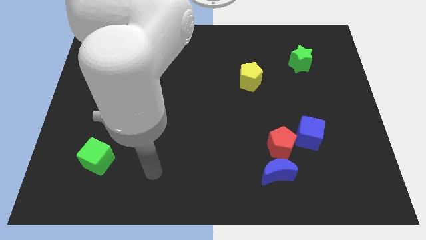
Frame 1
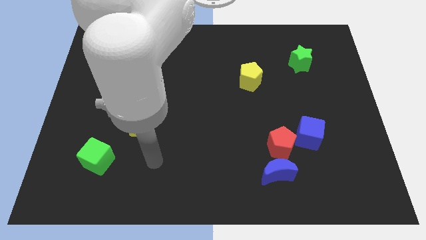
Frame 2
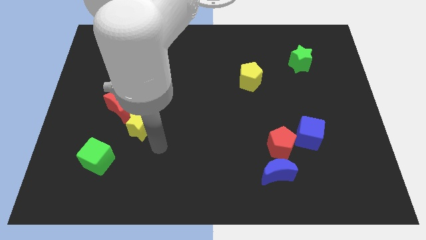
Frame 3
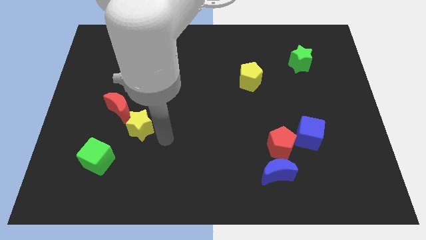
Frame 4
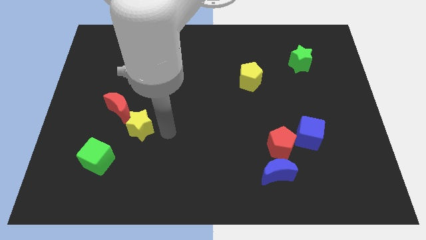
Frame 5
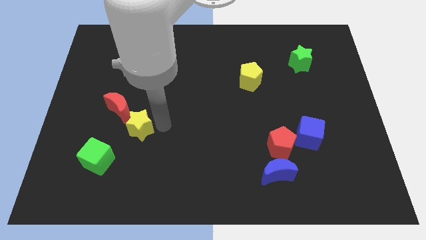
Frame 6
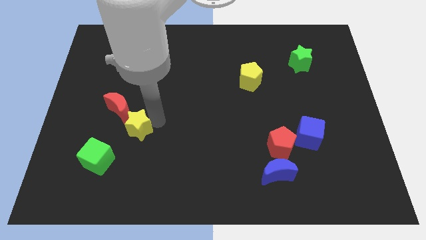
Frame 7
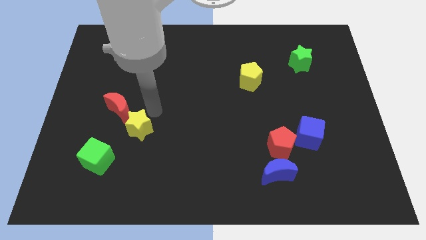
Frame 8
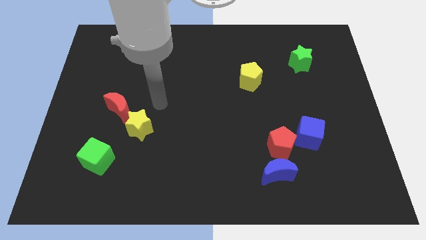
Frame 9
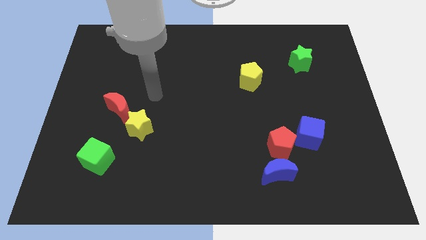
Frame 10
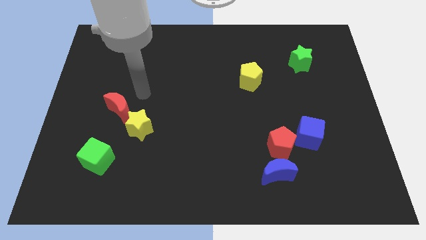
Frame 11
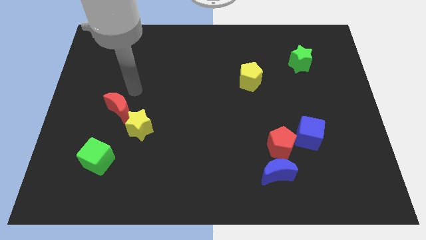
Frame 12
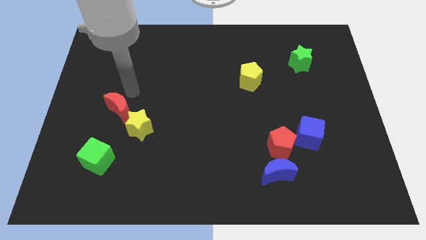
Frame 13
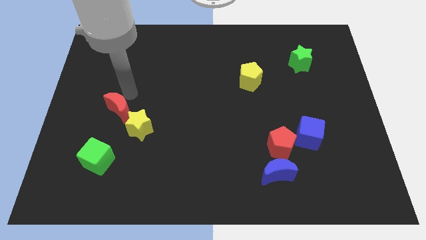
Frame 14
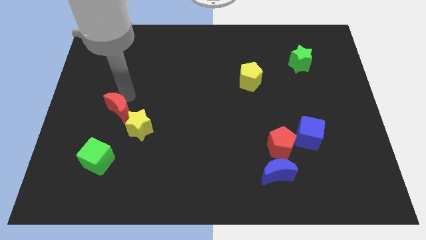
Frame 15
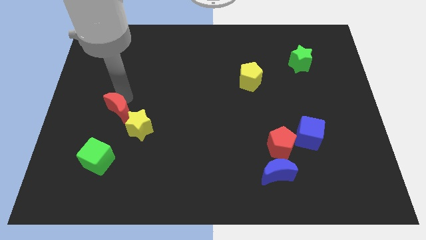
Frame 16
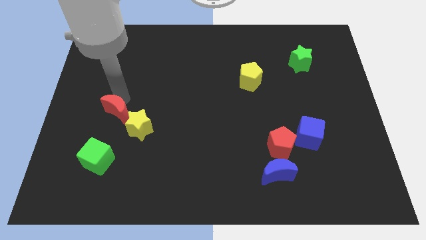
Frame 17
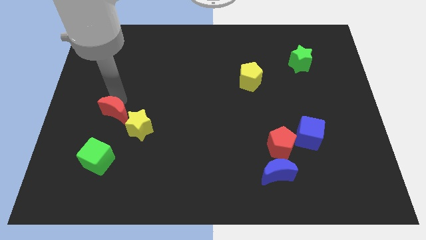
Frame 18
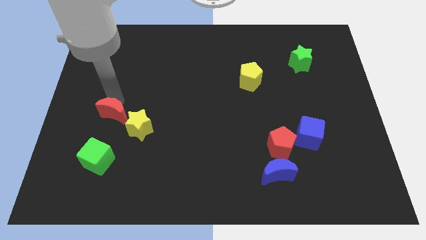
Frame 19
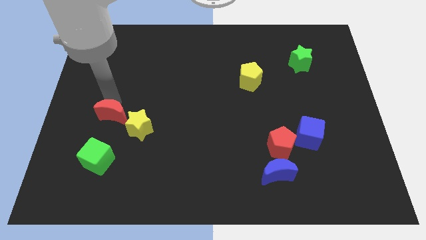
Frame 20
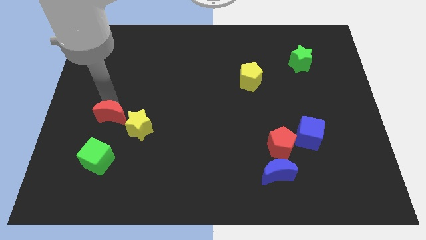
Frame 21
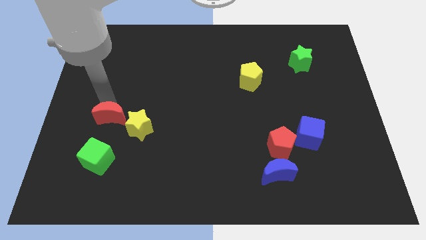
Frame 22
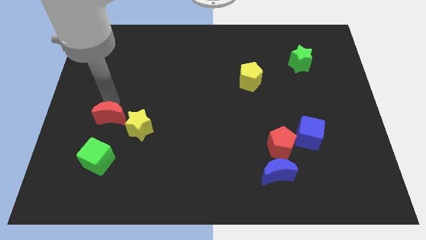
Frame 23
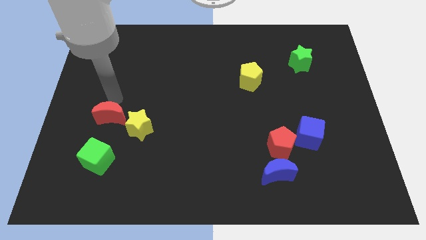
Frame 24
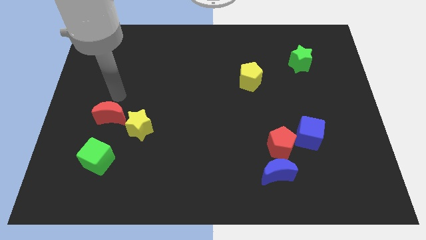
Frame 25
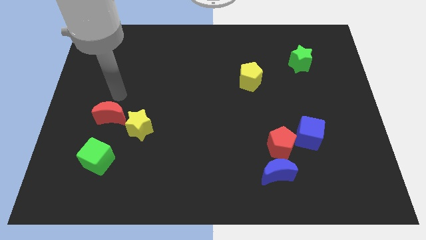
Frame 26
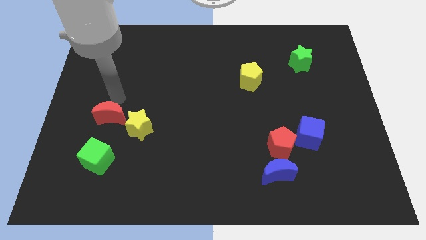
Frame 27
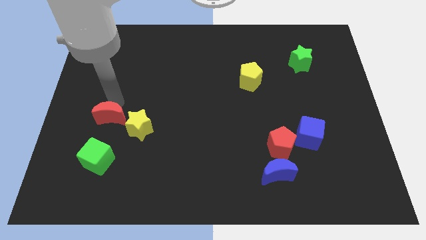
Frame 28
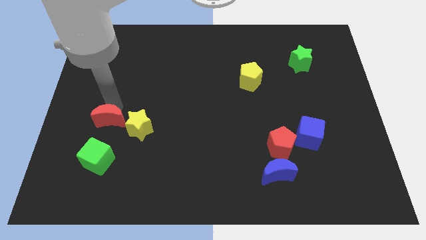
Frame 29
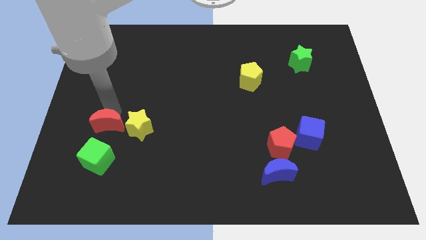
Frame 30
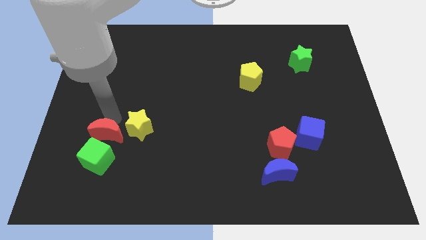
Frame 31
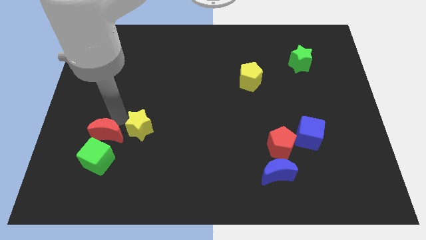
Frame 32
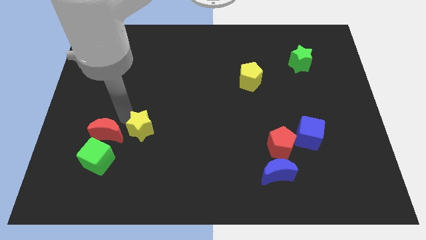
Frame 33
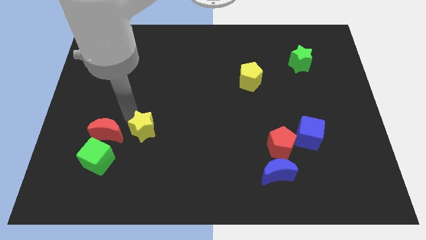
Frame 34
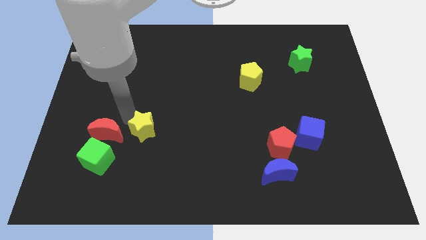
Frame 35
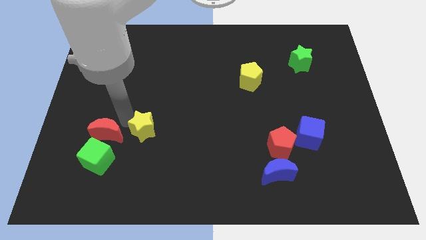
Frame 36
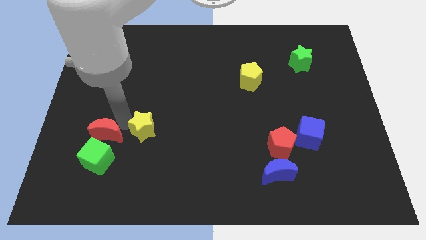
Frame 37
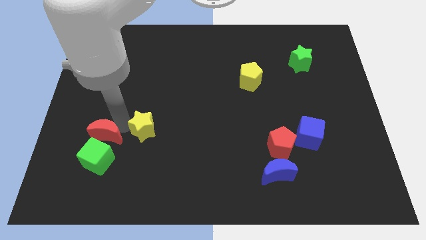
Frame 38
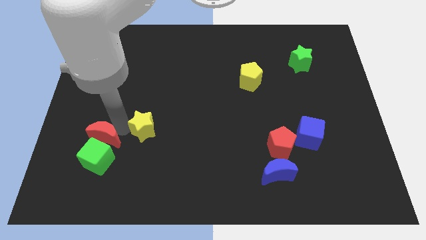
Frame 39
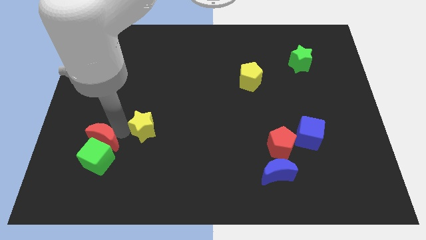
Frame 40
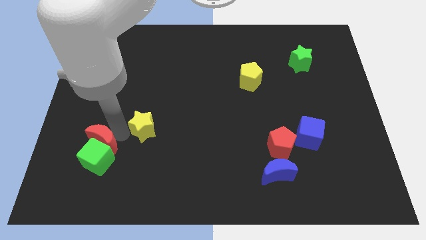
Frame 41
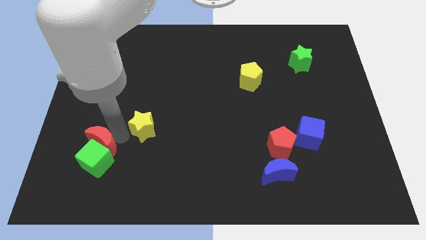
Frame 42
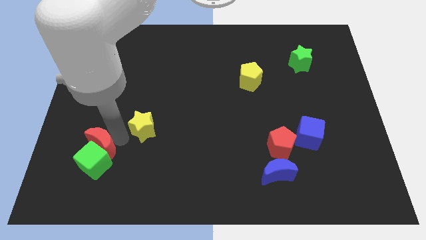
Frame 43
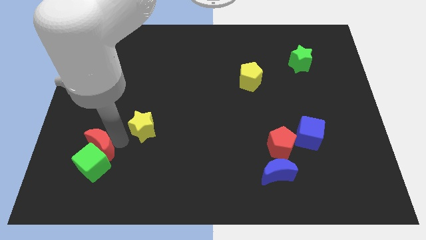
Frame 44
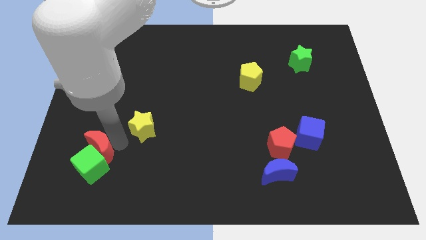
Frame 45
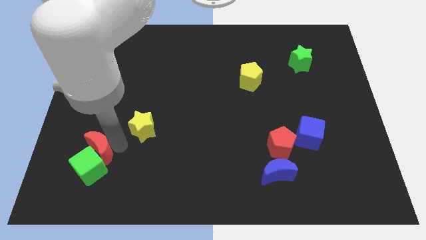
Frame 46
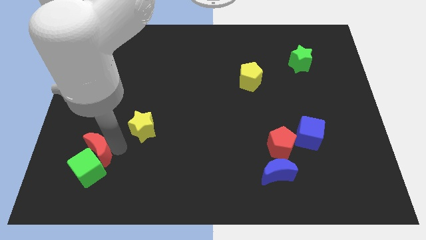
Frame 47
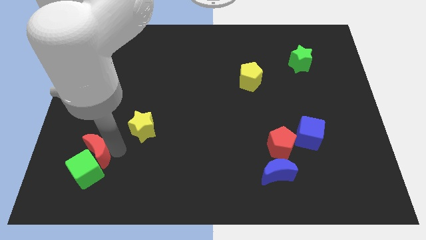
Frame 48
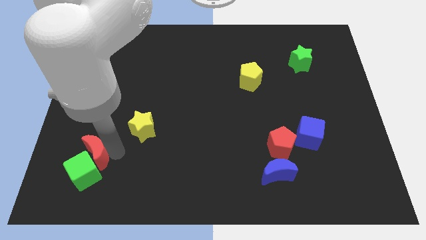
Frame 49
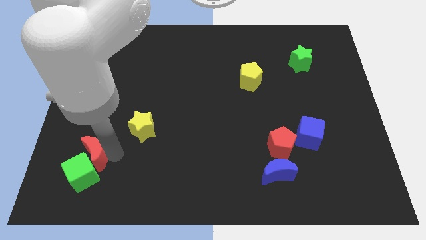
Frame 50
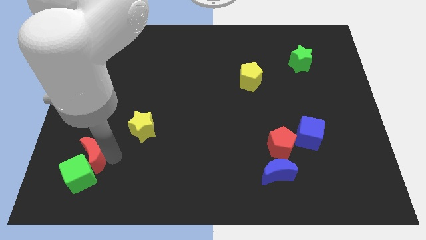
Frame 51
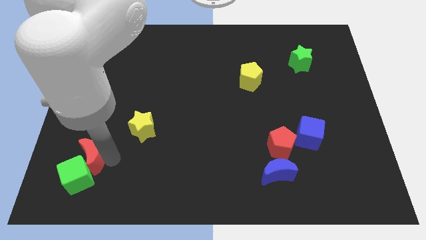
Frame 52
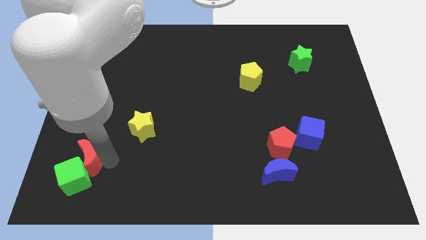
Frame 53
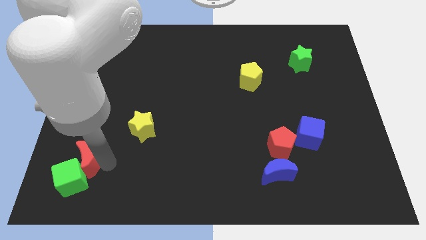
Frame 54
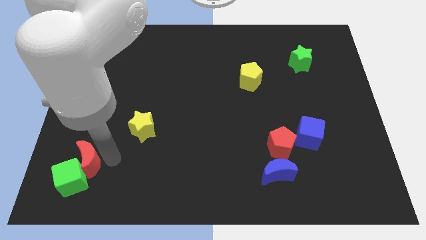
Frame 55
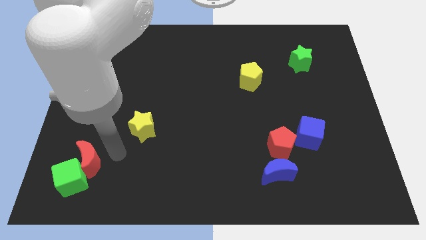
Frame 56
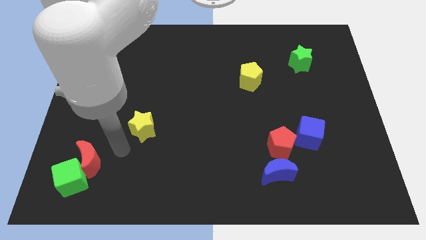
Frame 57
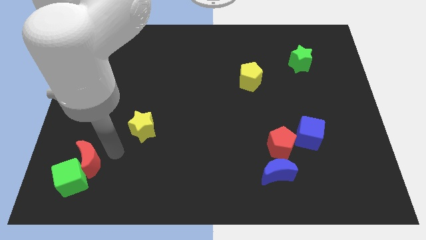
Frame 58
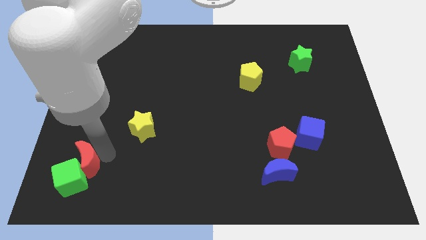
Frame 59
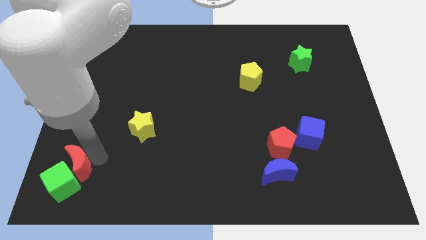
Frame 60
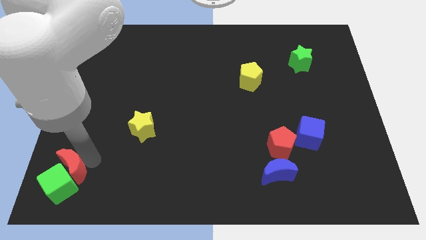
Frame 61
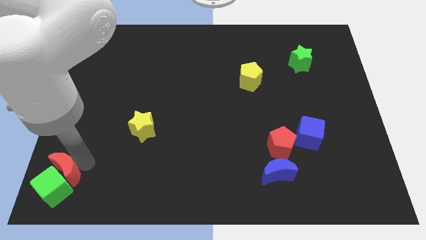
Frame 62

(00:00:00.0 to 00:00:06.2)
push the red moon to the lower left corner

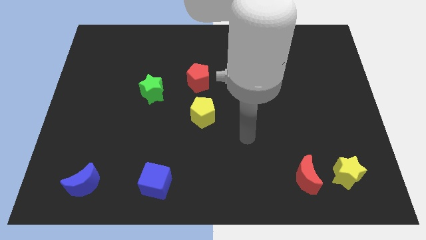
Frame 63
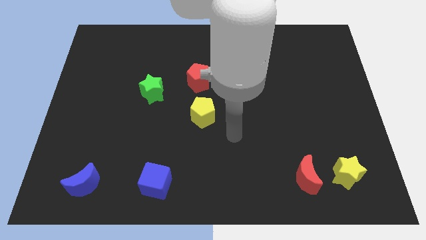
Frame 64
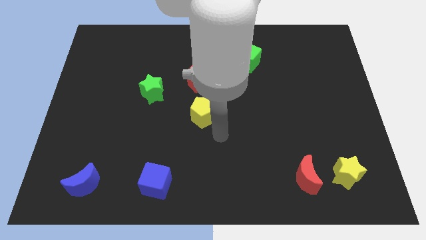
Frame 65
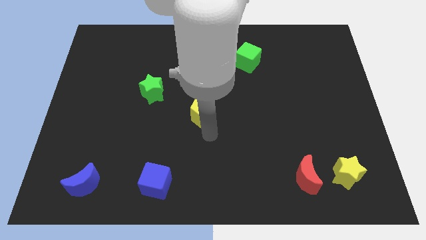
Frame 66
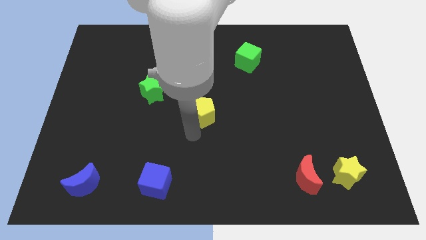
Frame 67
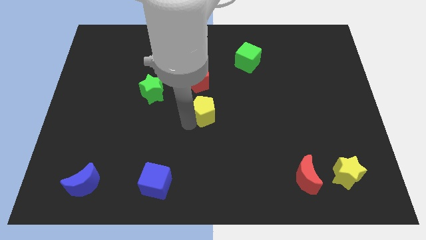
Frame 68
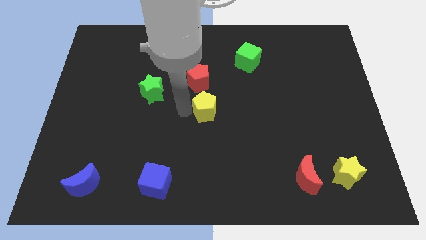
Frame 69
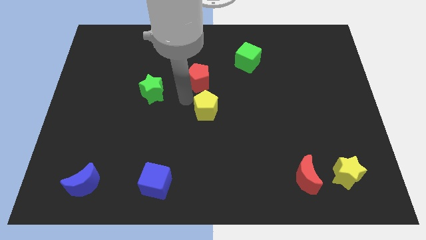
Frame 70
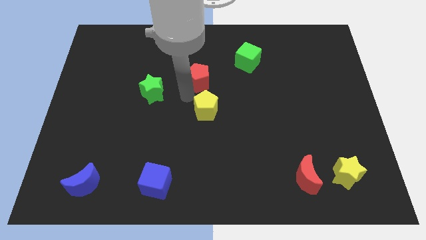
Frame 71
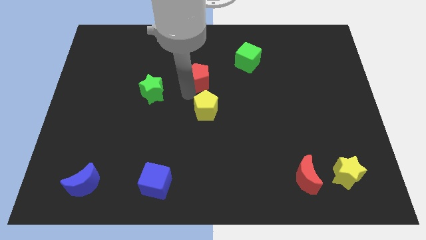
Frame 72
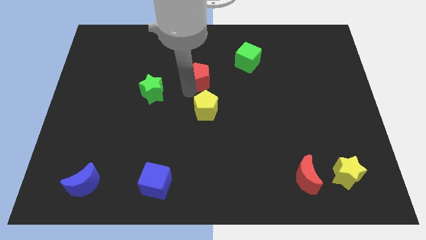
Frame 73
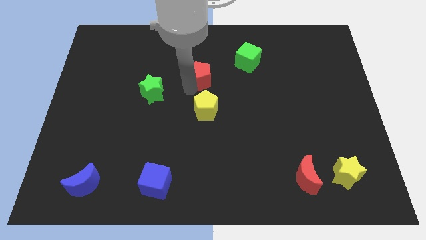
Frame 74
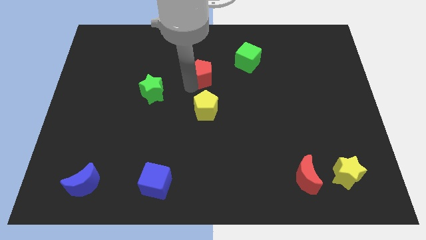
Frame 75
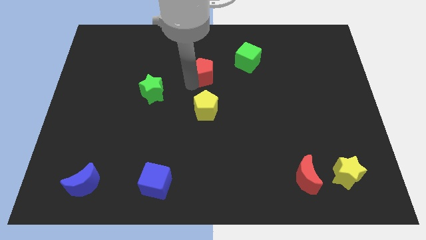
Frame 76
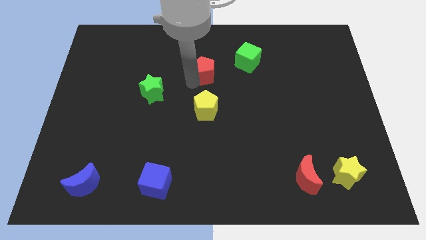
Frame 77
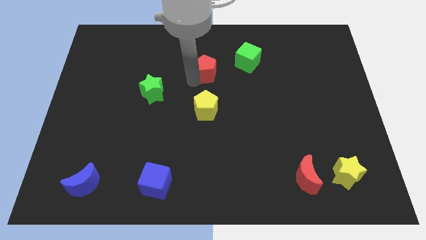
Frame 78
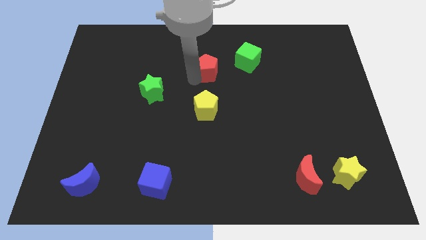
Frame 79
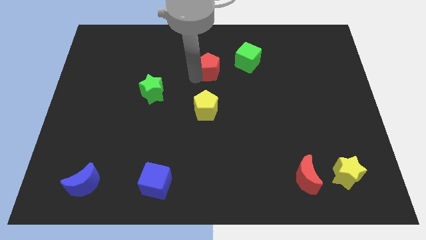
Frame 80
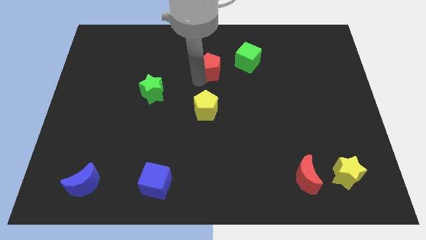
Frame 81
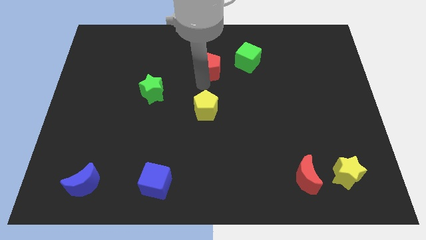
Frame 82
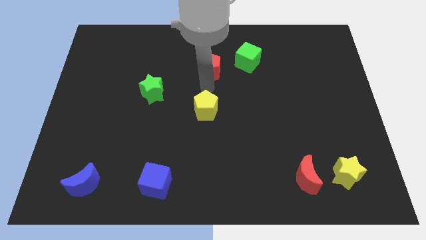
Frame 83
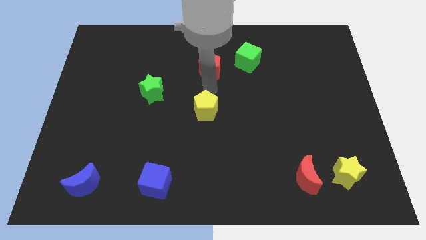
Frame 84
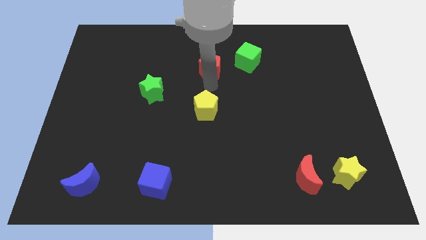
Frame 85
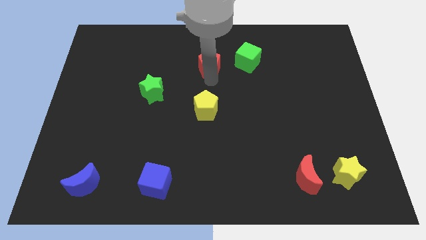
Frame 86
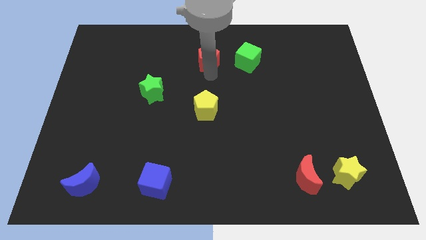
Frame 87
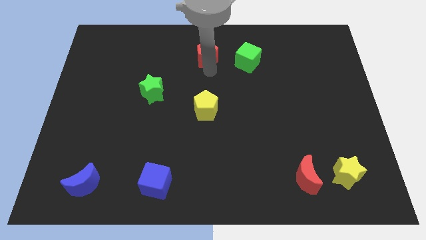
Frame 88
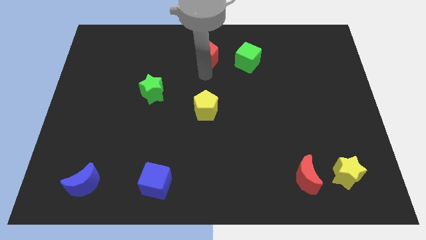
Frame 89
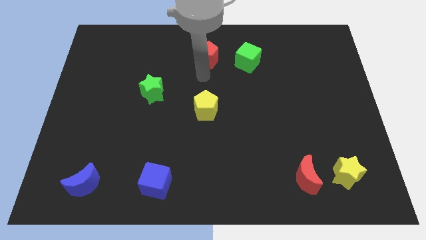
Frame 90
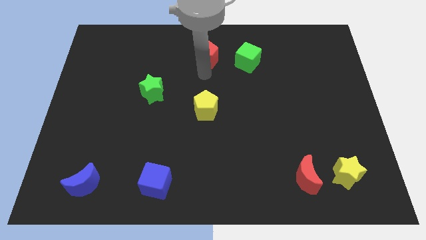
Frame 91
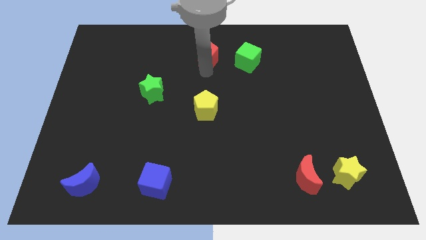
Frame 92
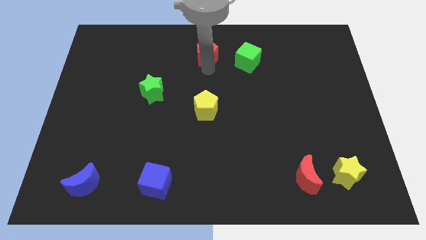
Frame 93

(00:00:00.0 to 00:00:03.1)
move the red pentagon to the top
